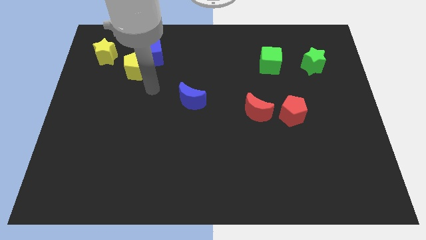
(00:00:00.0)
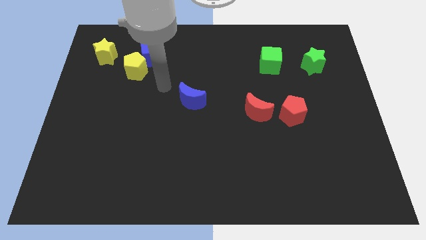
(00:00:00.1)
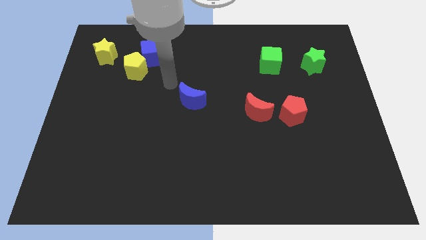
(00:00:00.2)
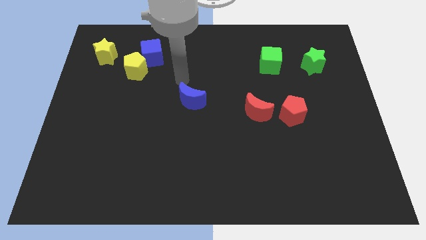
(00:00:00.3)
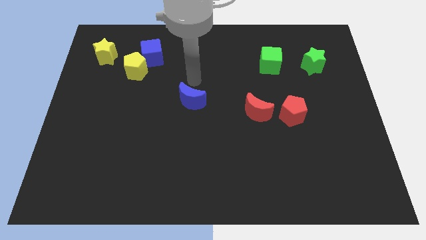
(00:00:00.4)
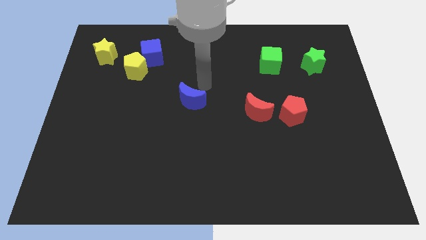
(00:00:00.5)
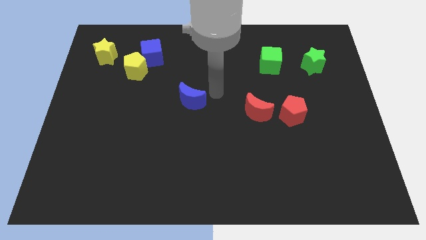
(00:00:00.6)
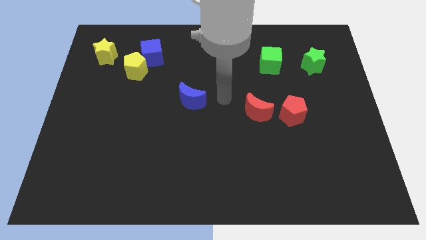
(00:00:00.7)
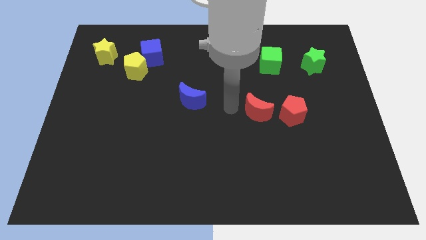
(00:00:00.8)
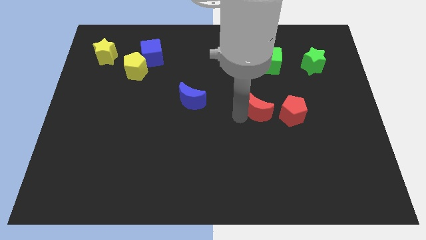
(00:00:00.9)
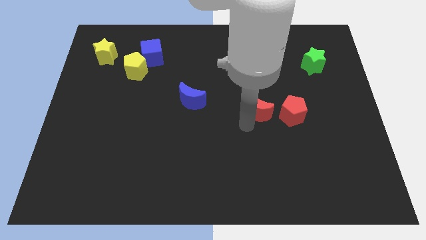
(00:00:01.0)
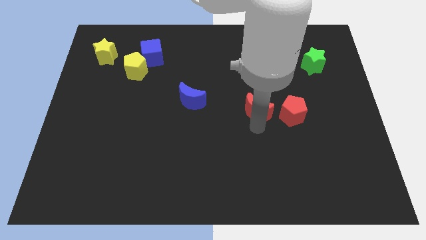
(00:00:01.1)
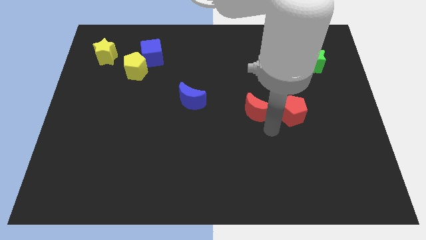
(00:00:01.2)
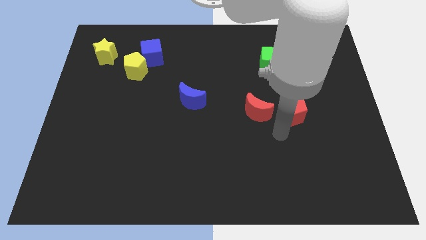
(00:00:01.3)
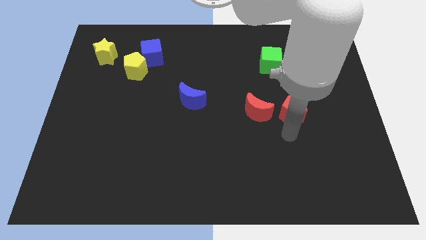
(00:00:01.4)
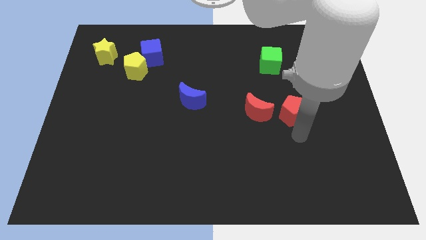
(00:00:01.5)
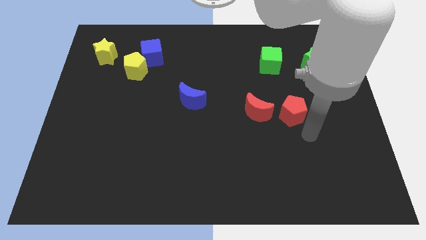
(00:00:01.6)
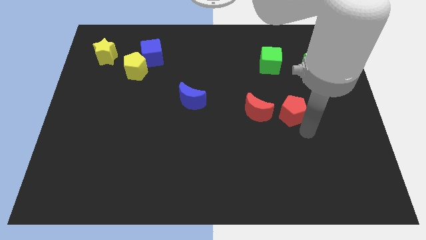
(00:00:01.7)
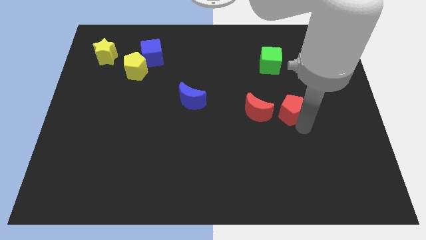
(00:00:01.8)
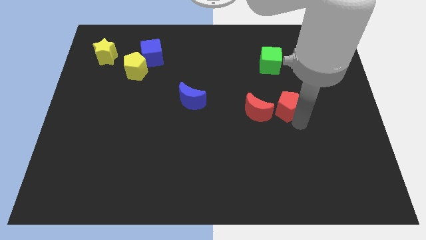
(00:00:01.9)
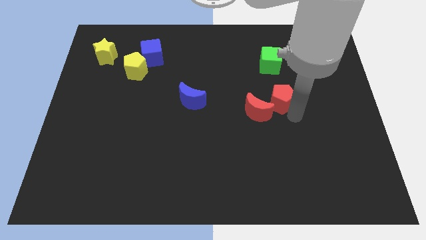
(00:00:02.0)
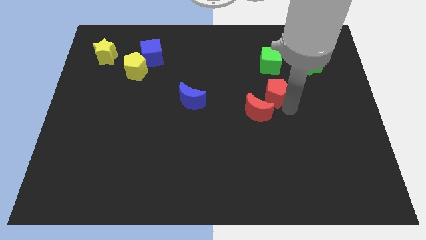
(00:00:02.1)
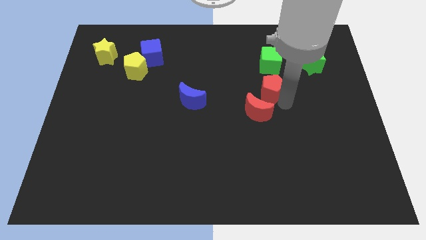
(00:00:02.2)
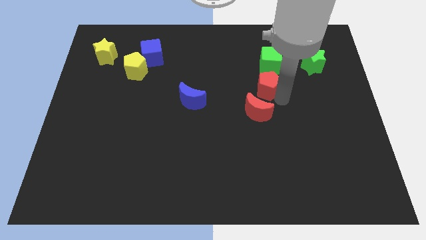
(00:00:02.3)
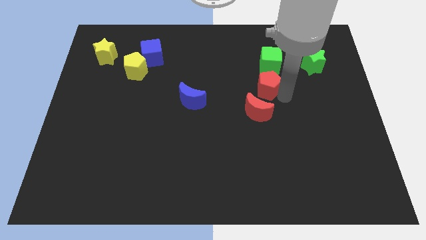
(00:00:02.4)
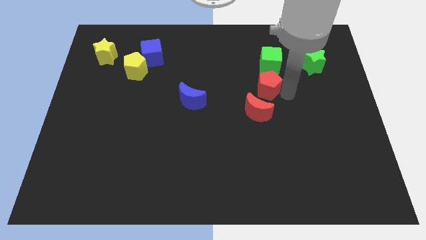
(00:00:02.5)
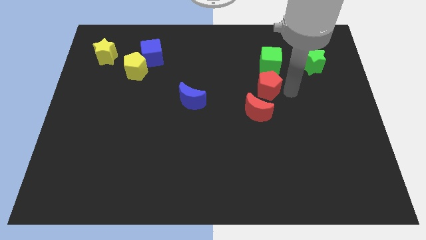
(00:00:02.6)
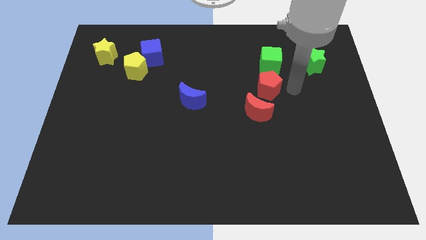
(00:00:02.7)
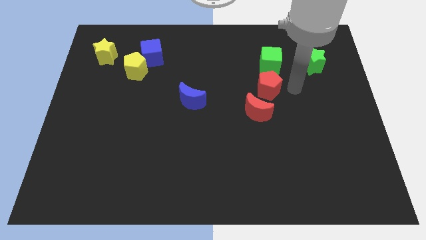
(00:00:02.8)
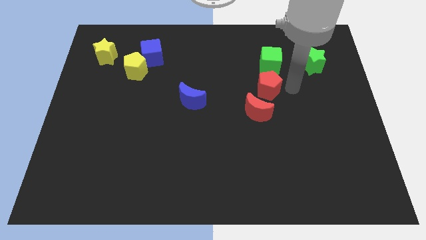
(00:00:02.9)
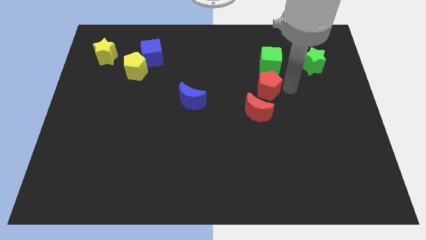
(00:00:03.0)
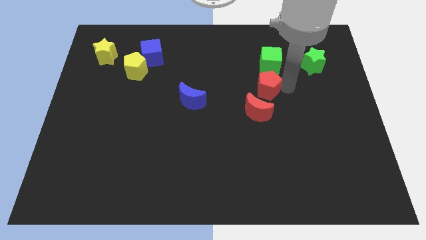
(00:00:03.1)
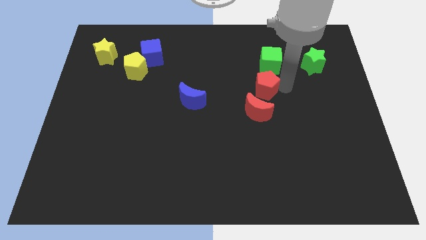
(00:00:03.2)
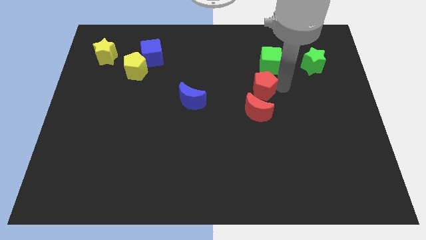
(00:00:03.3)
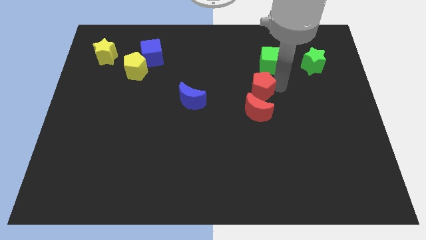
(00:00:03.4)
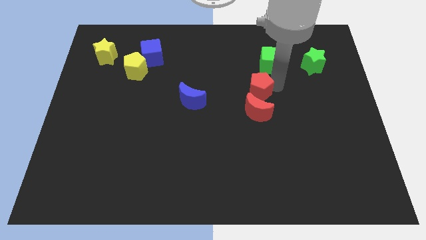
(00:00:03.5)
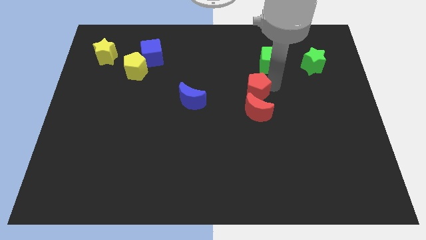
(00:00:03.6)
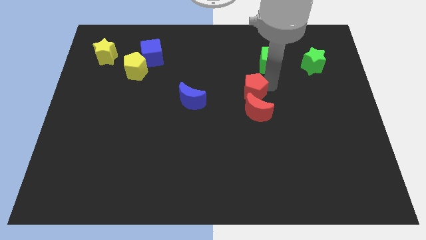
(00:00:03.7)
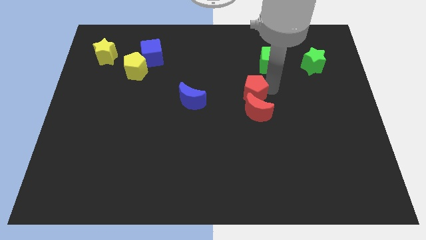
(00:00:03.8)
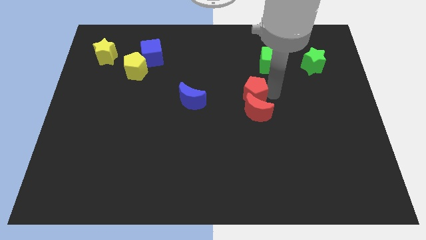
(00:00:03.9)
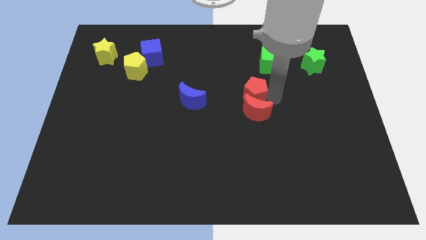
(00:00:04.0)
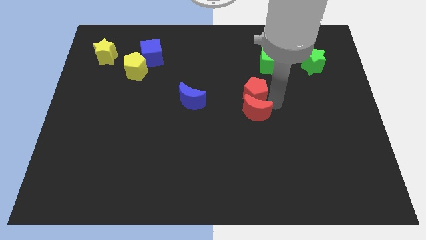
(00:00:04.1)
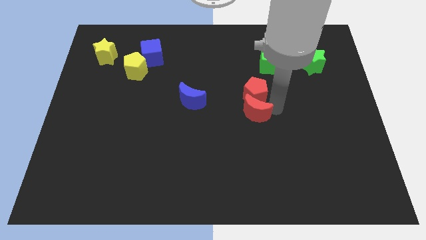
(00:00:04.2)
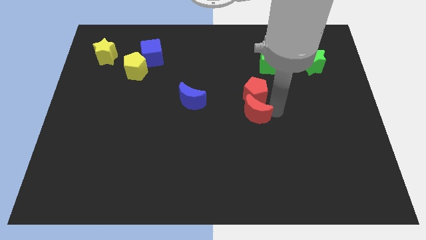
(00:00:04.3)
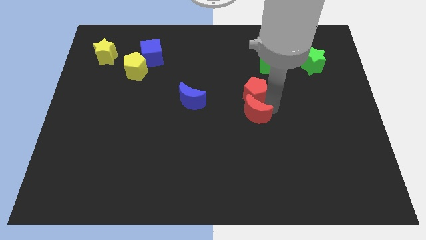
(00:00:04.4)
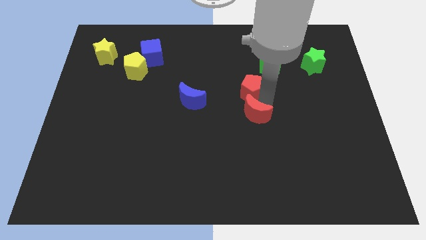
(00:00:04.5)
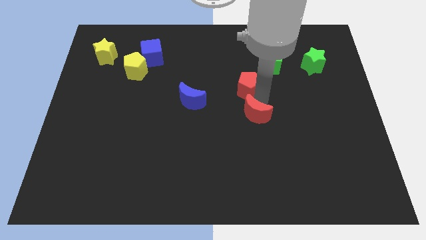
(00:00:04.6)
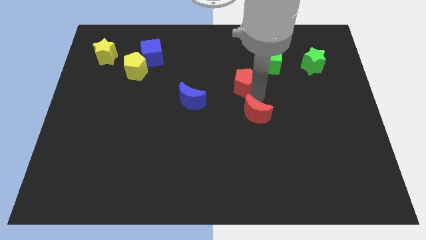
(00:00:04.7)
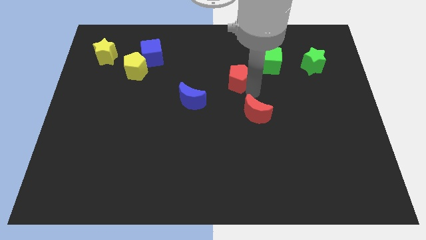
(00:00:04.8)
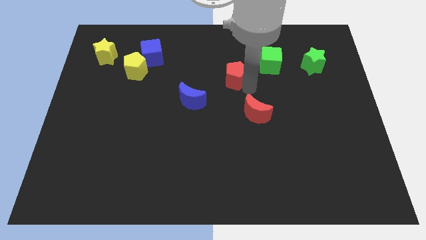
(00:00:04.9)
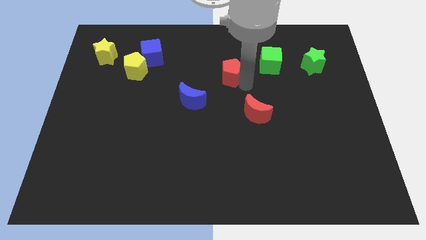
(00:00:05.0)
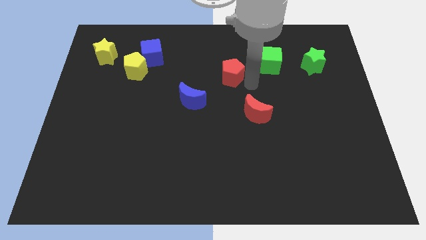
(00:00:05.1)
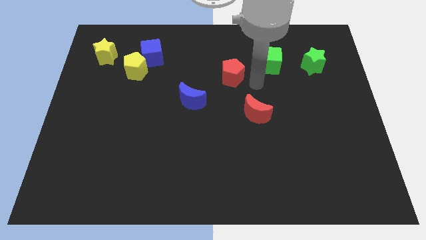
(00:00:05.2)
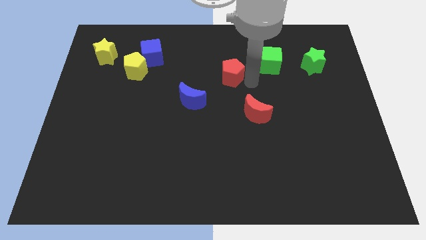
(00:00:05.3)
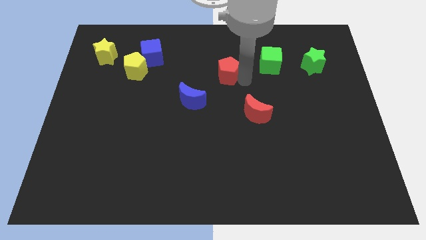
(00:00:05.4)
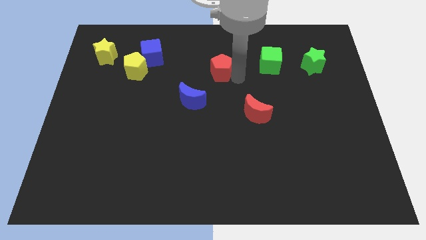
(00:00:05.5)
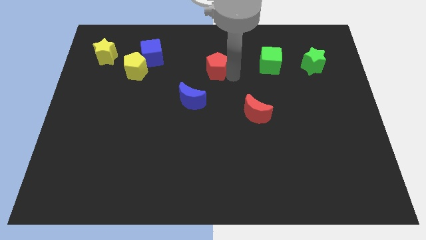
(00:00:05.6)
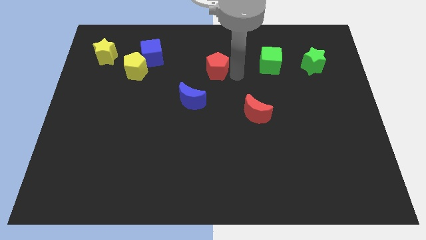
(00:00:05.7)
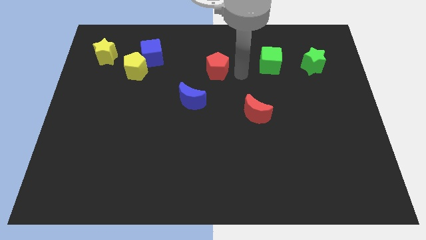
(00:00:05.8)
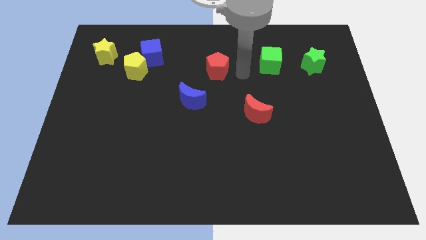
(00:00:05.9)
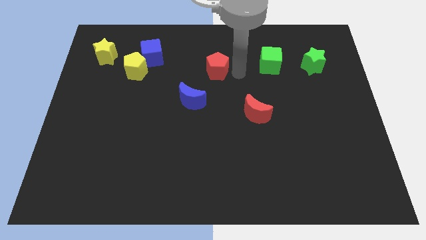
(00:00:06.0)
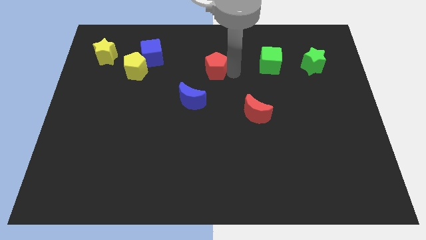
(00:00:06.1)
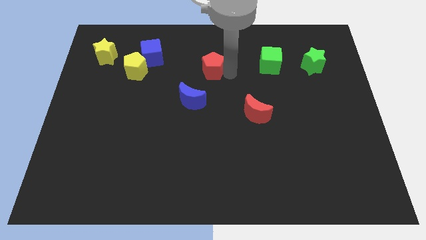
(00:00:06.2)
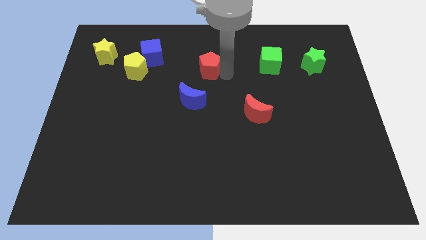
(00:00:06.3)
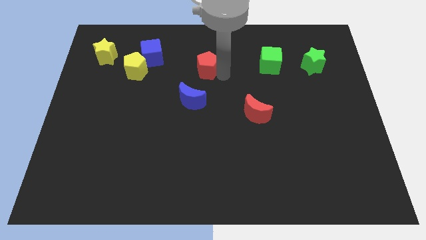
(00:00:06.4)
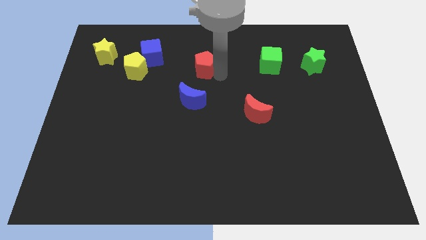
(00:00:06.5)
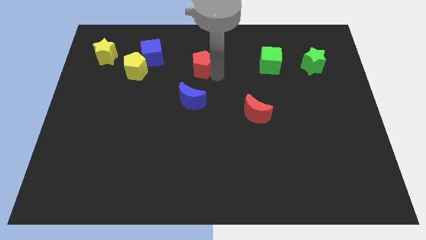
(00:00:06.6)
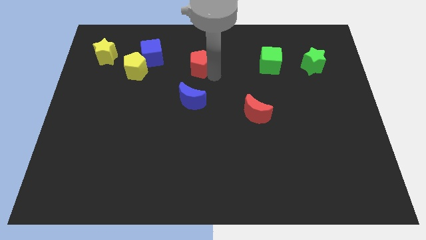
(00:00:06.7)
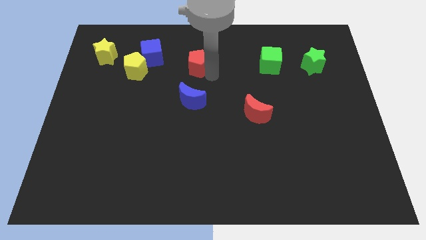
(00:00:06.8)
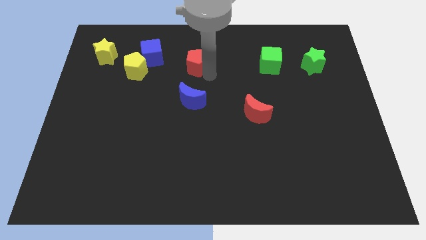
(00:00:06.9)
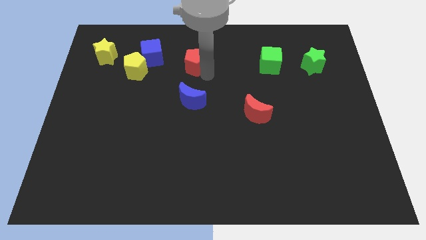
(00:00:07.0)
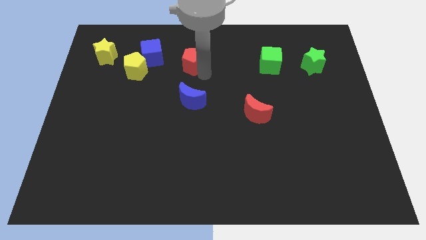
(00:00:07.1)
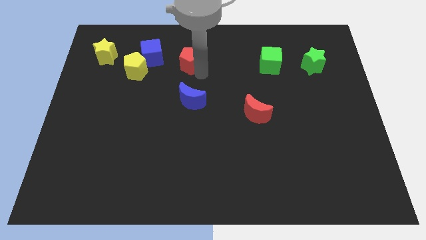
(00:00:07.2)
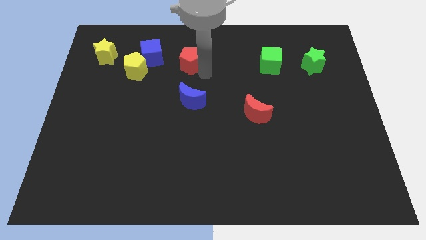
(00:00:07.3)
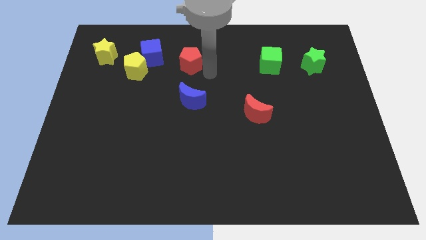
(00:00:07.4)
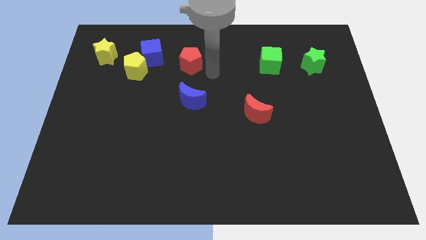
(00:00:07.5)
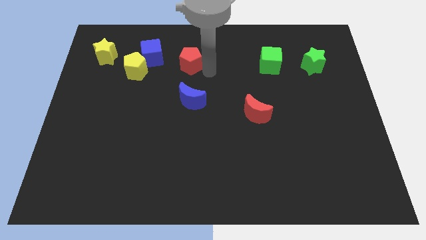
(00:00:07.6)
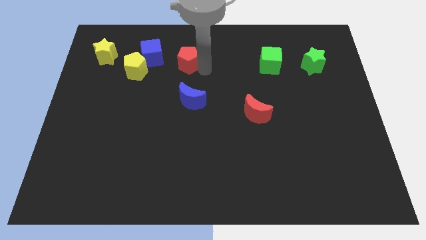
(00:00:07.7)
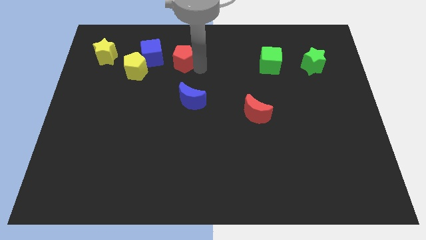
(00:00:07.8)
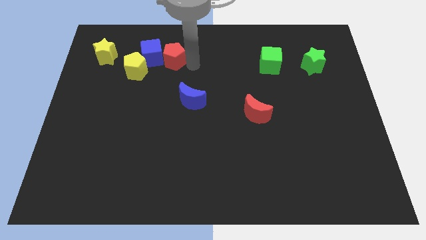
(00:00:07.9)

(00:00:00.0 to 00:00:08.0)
move the red pentagon close to the blue cube
